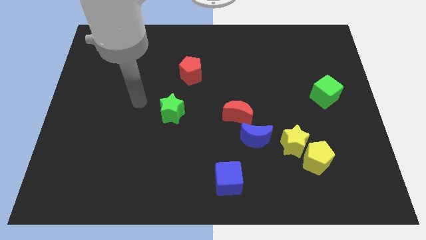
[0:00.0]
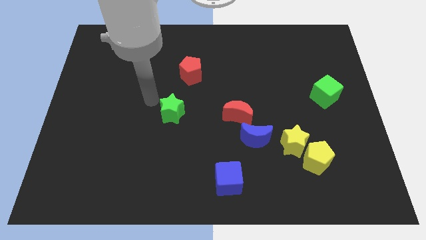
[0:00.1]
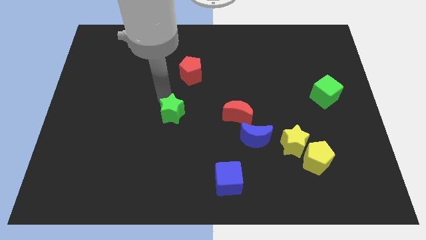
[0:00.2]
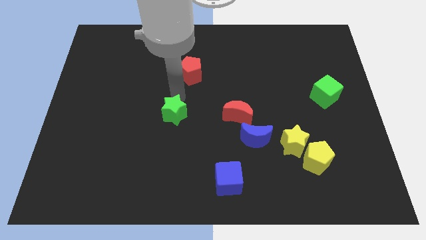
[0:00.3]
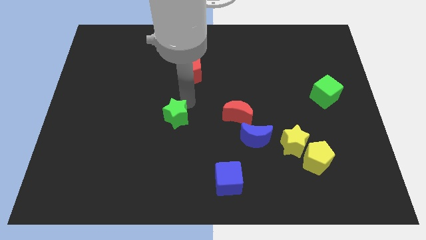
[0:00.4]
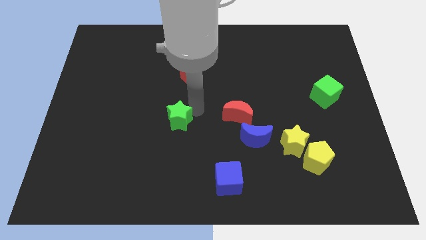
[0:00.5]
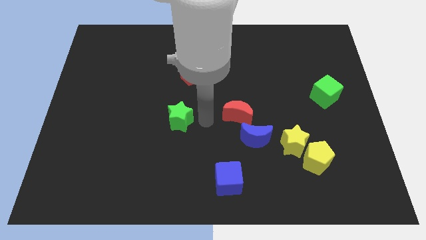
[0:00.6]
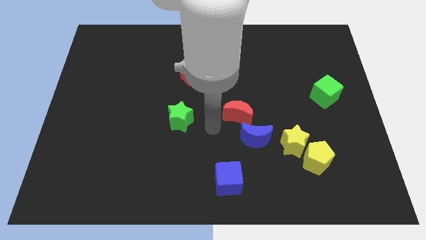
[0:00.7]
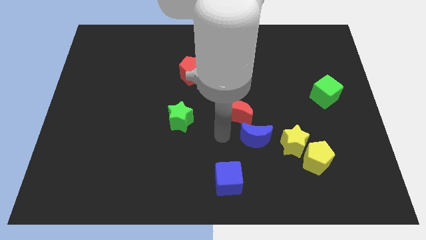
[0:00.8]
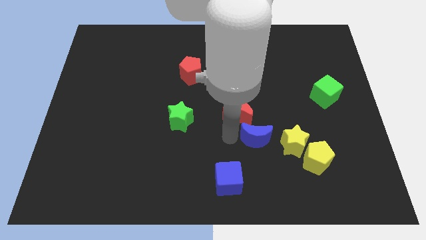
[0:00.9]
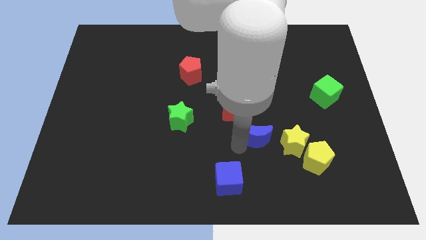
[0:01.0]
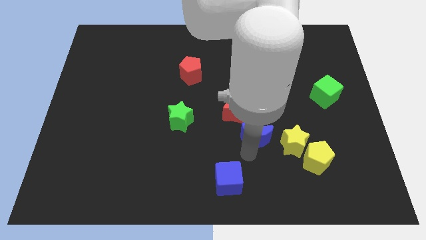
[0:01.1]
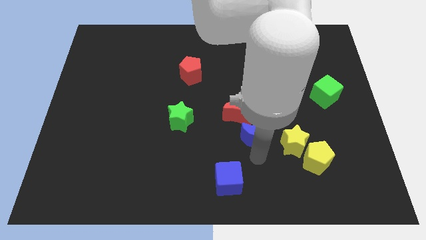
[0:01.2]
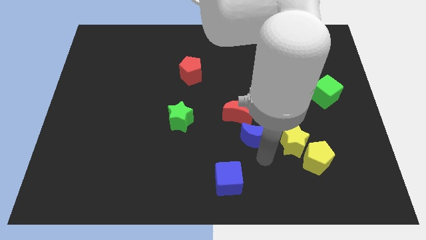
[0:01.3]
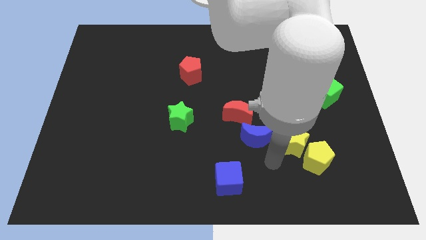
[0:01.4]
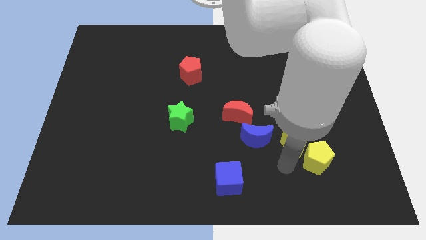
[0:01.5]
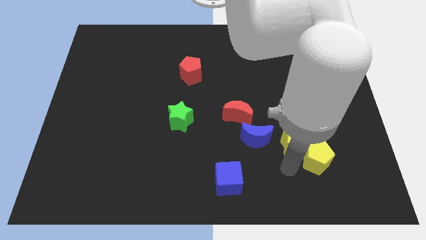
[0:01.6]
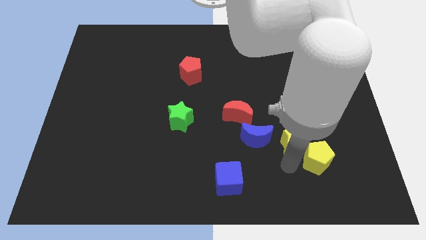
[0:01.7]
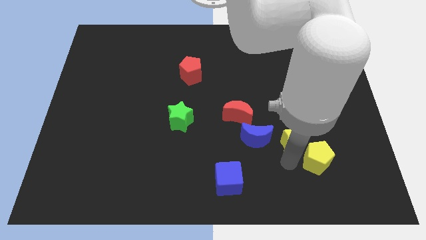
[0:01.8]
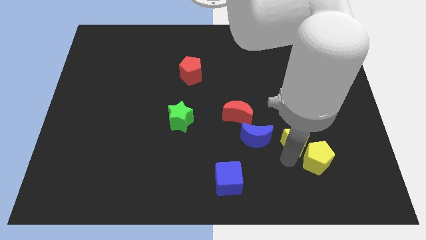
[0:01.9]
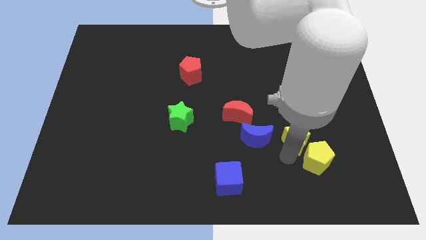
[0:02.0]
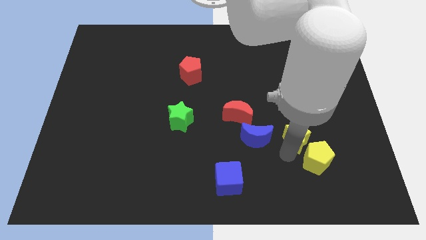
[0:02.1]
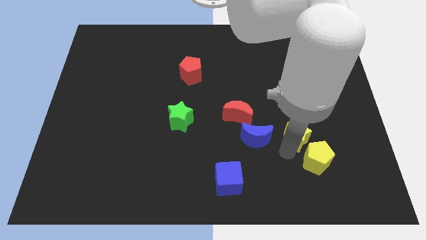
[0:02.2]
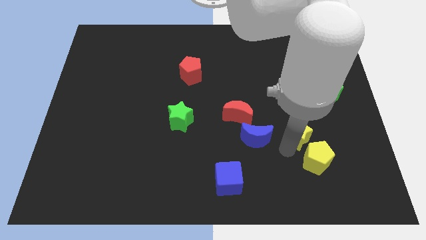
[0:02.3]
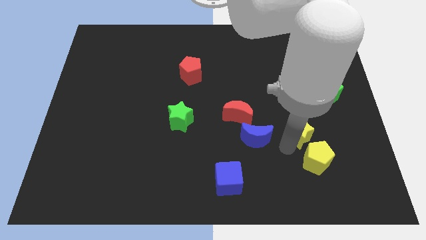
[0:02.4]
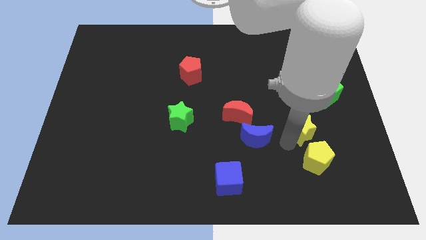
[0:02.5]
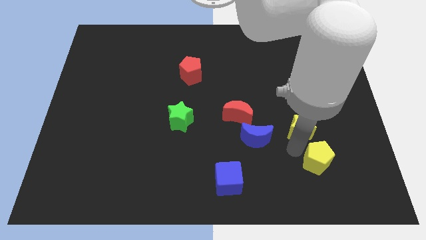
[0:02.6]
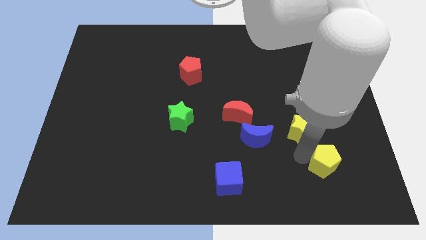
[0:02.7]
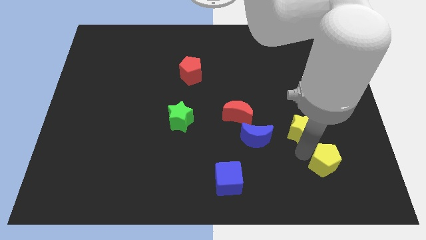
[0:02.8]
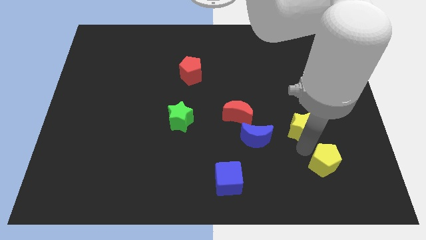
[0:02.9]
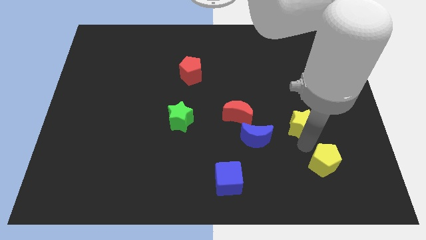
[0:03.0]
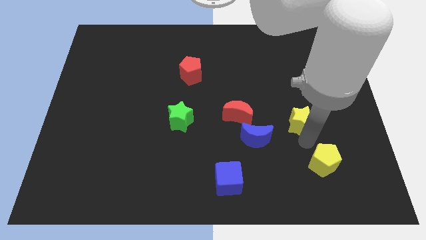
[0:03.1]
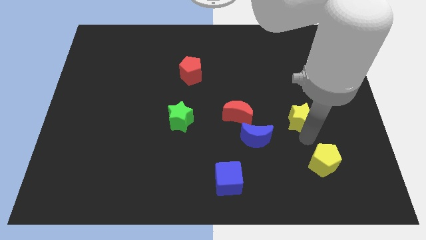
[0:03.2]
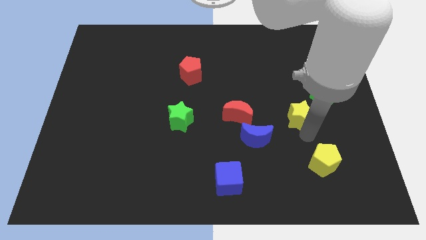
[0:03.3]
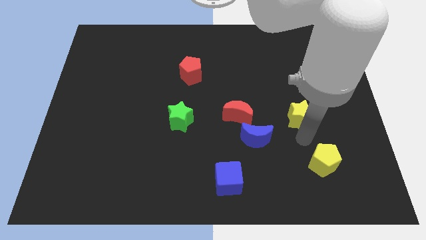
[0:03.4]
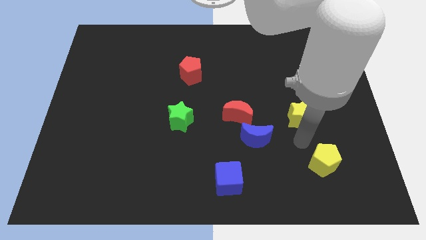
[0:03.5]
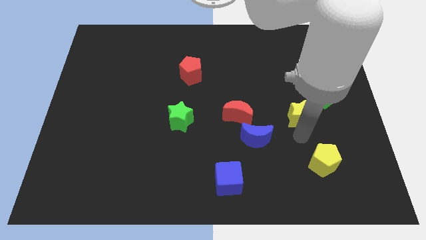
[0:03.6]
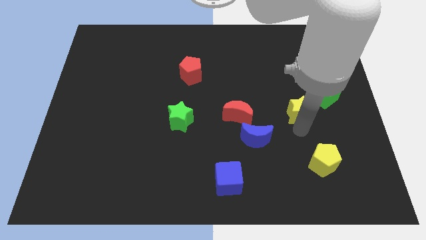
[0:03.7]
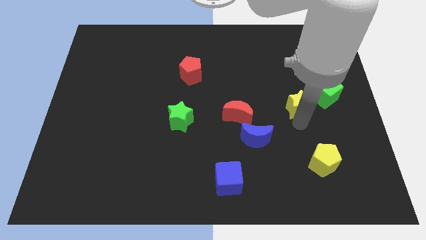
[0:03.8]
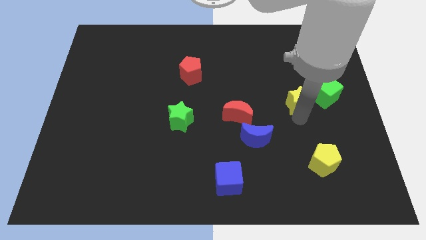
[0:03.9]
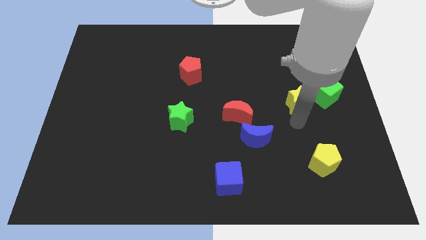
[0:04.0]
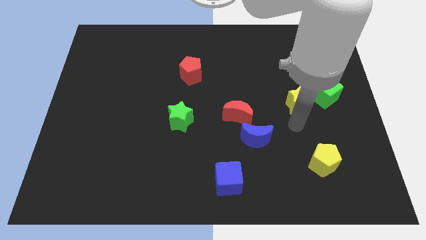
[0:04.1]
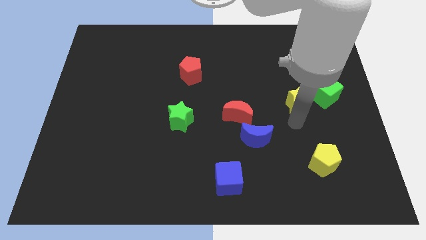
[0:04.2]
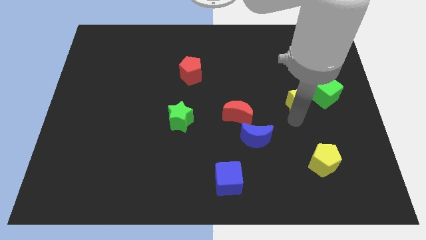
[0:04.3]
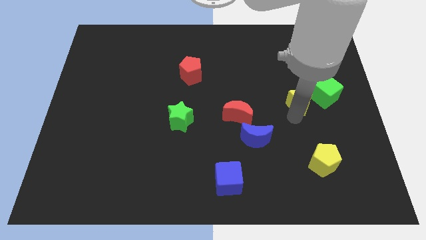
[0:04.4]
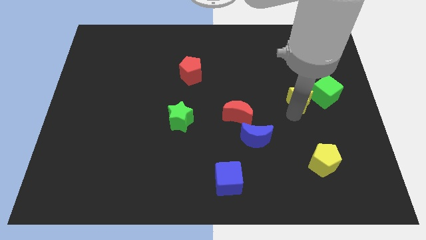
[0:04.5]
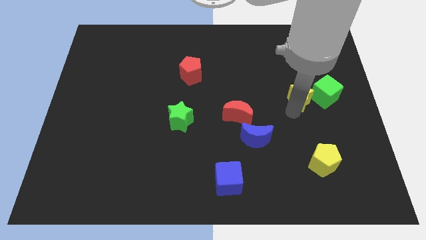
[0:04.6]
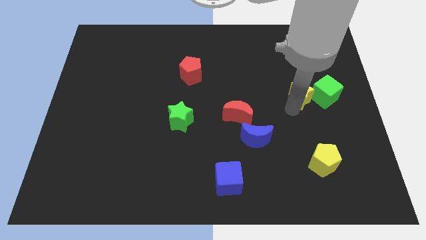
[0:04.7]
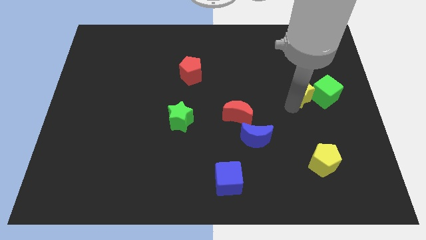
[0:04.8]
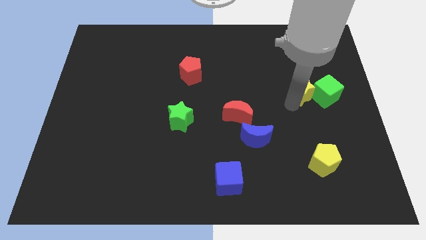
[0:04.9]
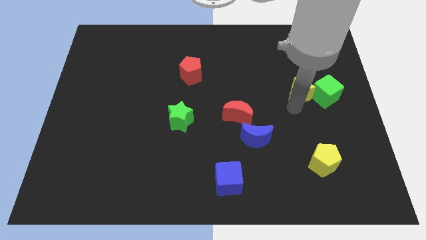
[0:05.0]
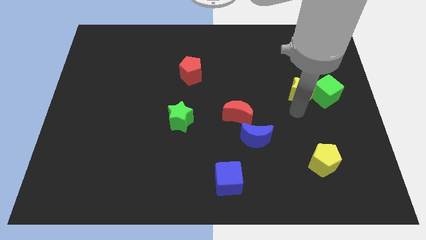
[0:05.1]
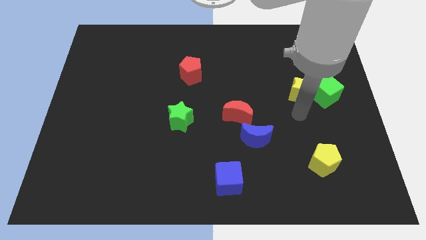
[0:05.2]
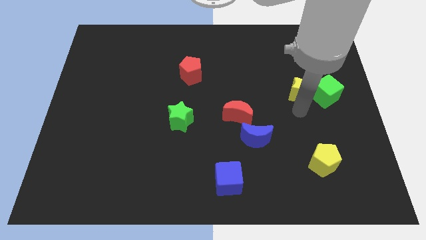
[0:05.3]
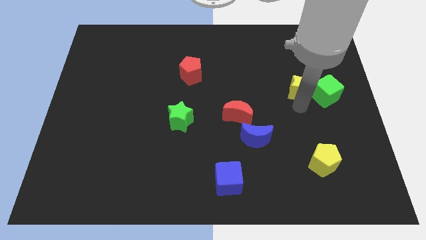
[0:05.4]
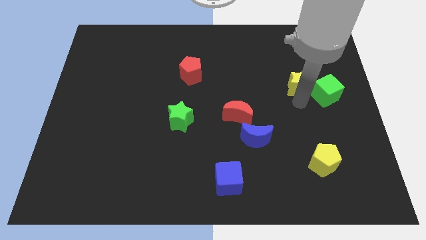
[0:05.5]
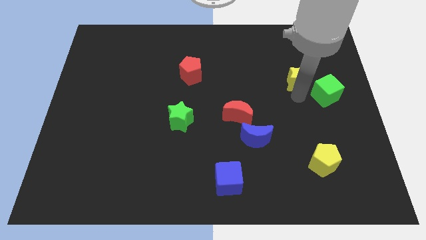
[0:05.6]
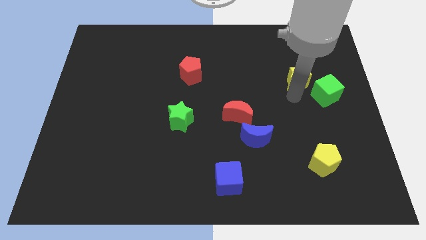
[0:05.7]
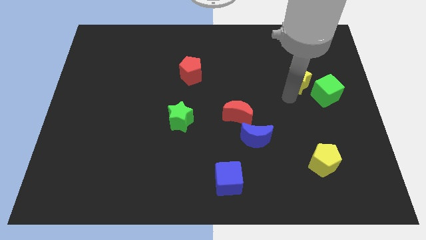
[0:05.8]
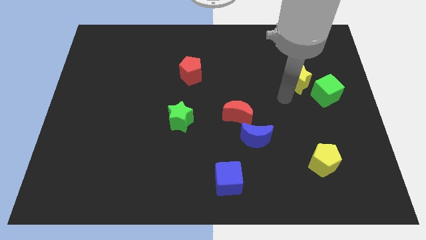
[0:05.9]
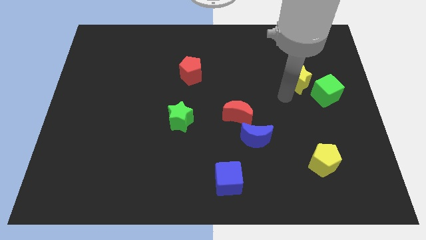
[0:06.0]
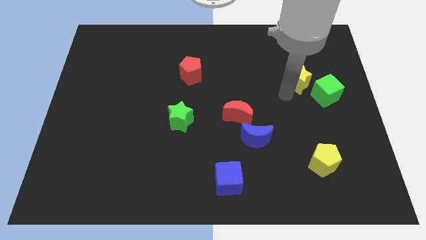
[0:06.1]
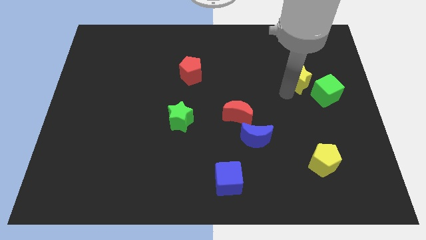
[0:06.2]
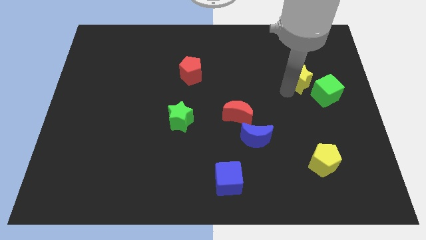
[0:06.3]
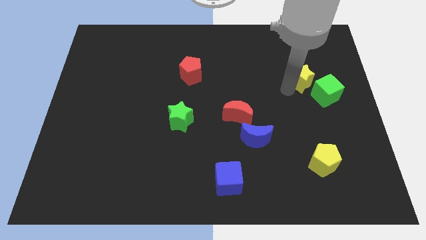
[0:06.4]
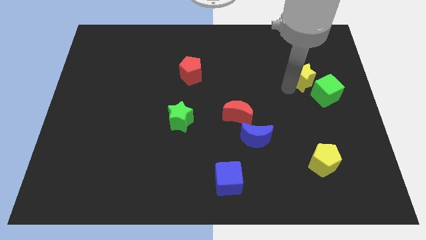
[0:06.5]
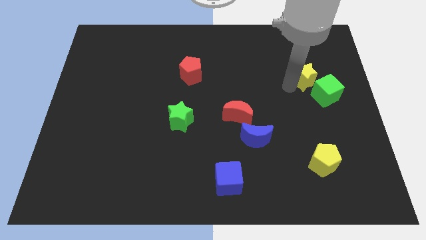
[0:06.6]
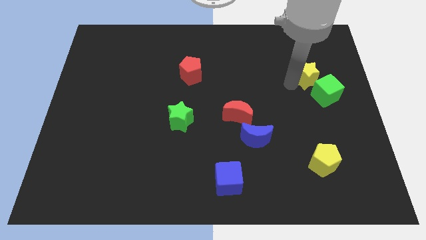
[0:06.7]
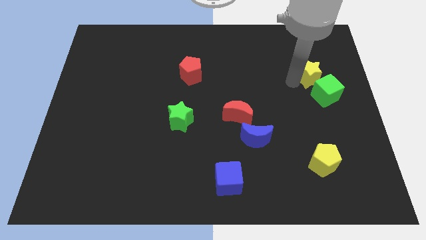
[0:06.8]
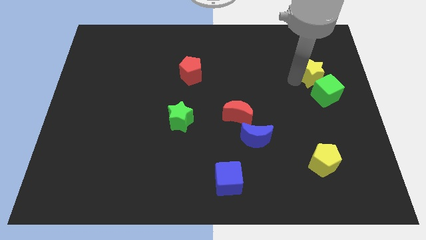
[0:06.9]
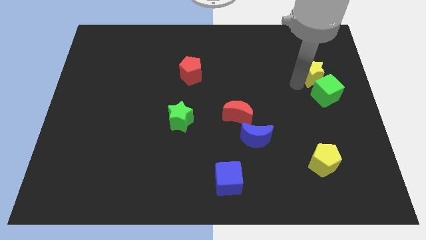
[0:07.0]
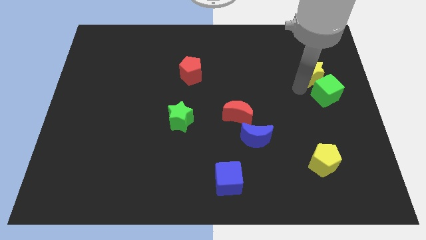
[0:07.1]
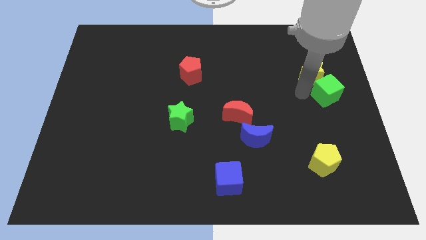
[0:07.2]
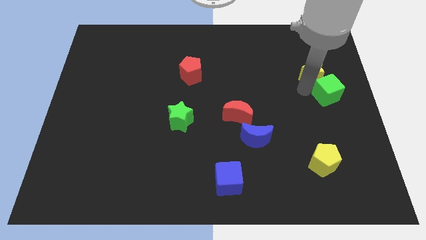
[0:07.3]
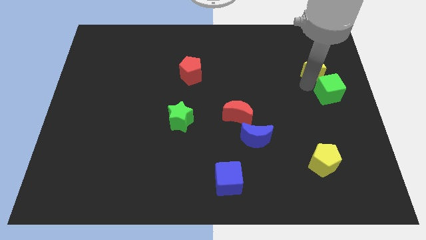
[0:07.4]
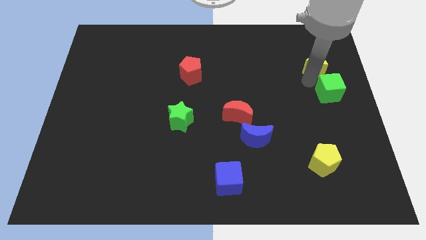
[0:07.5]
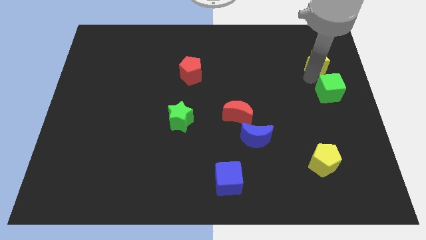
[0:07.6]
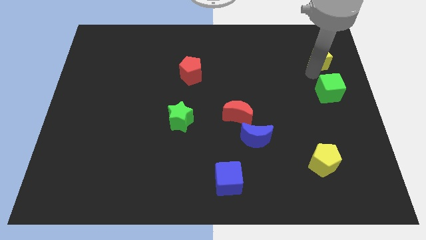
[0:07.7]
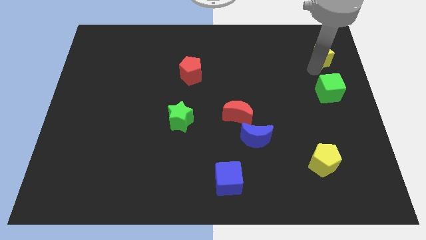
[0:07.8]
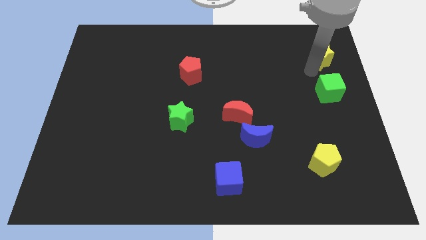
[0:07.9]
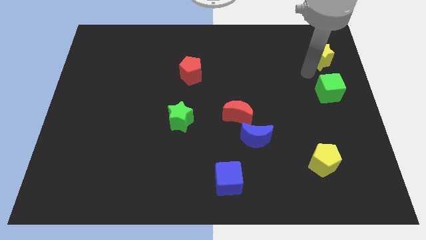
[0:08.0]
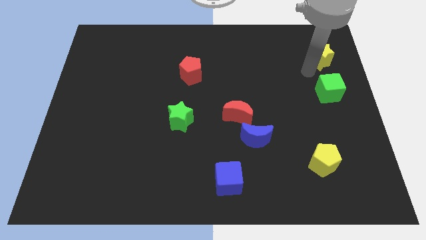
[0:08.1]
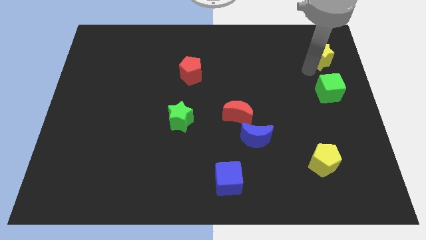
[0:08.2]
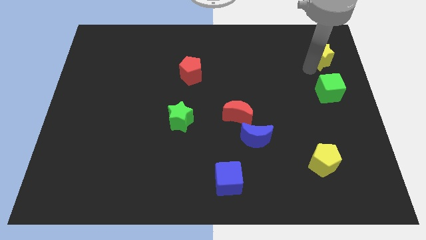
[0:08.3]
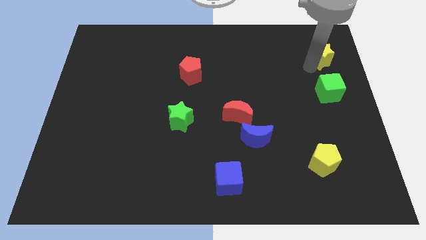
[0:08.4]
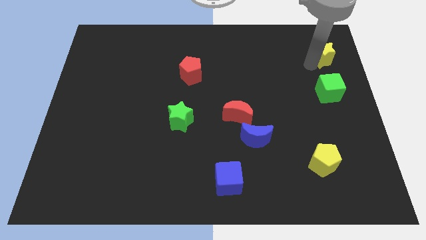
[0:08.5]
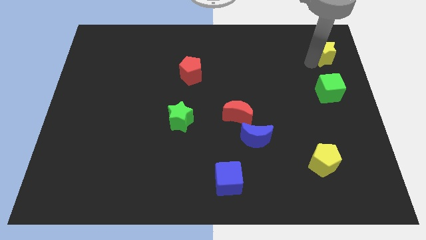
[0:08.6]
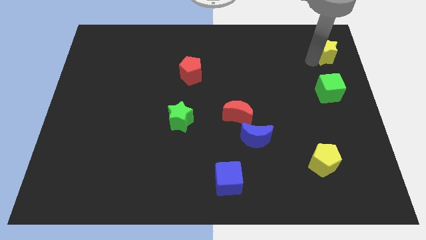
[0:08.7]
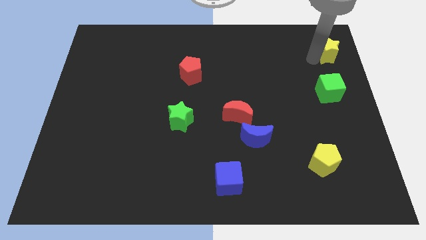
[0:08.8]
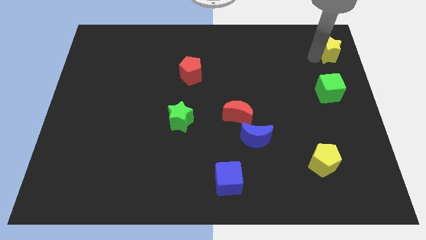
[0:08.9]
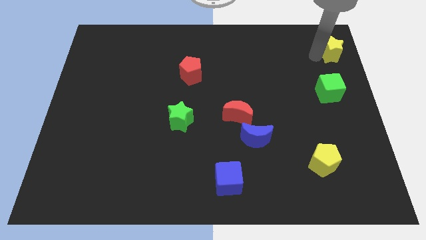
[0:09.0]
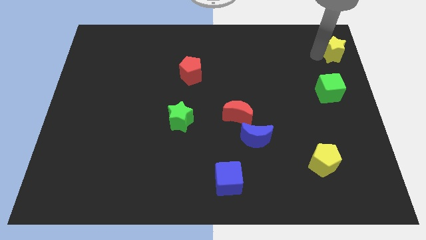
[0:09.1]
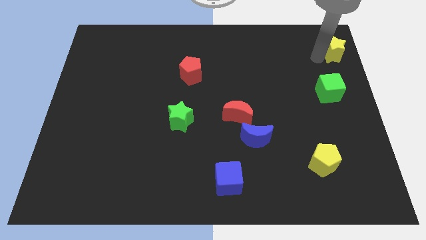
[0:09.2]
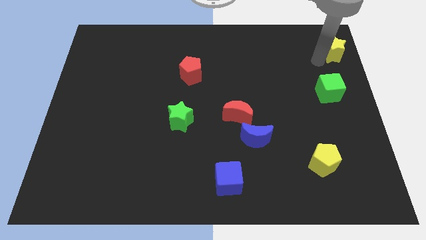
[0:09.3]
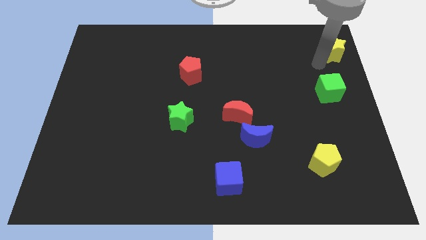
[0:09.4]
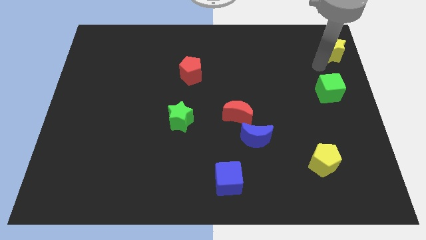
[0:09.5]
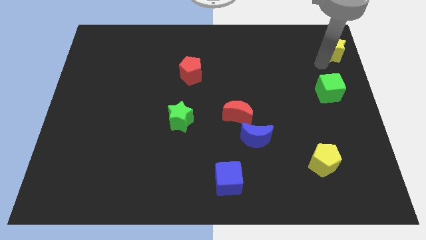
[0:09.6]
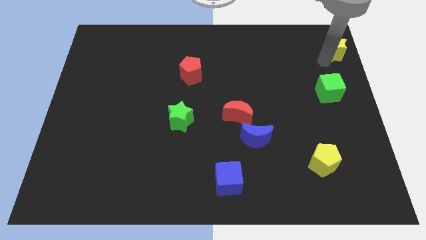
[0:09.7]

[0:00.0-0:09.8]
put the yellow star to the top right
